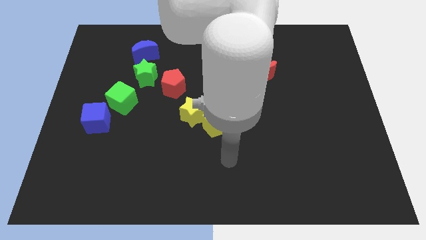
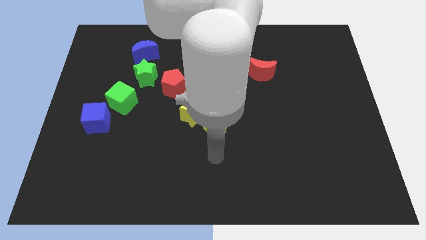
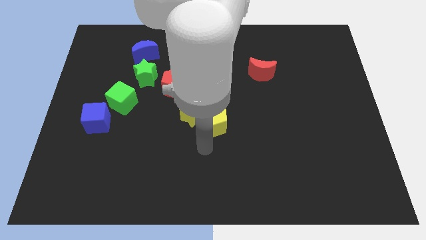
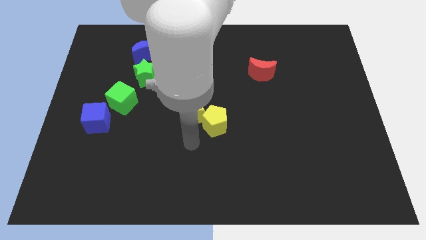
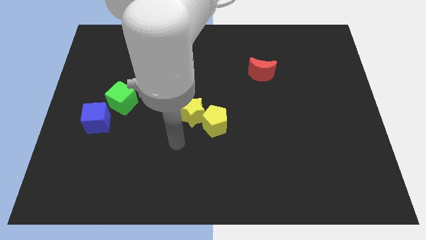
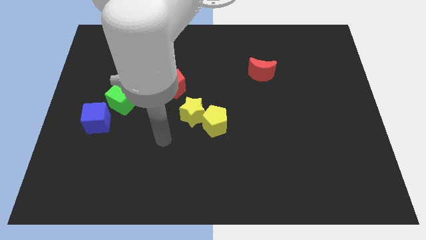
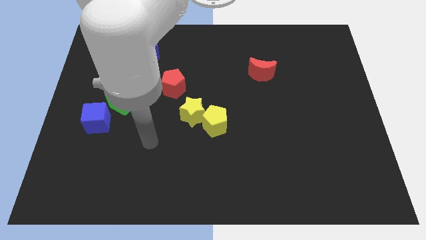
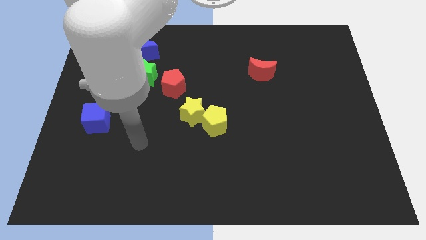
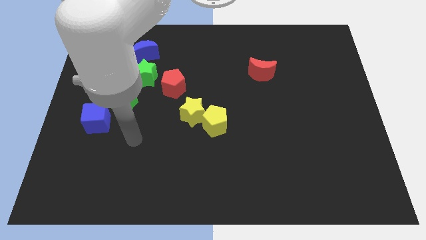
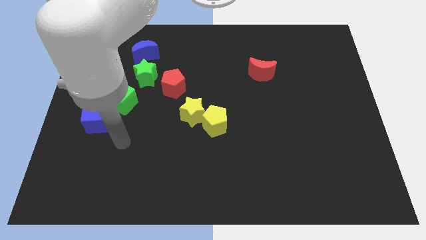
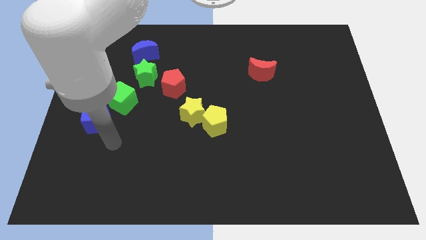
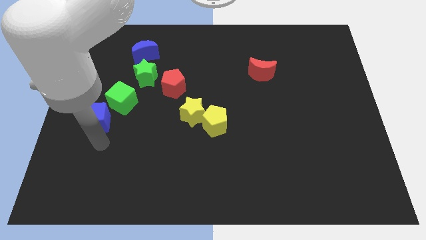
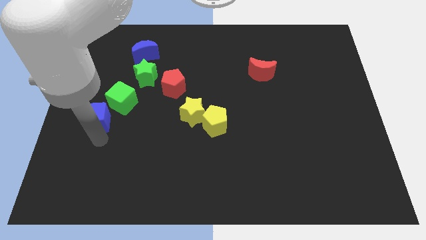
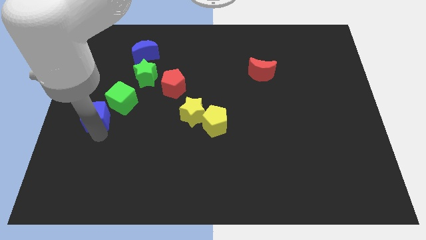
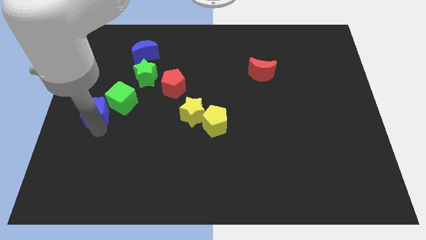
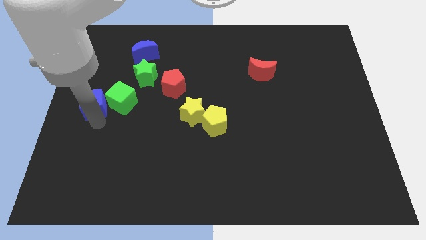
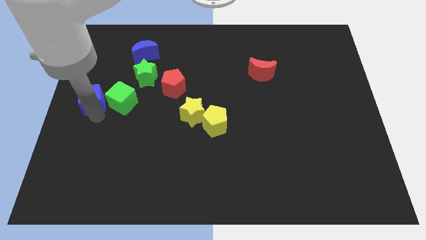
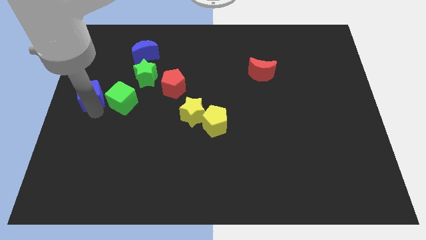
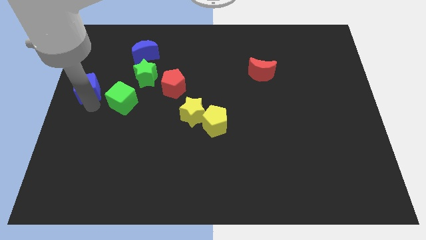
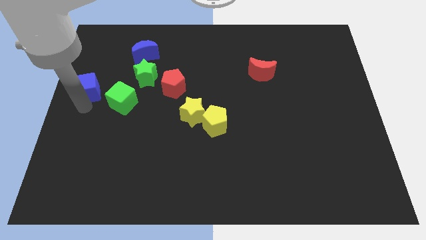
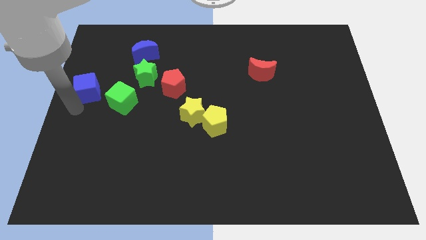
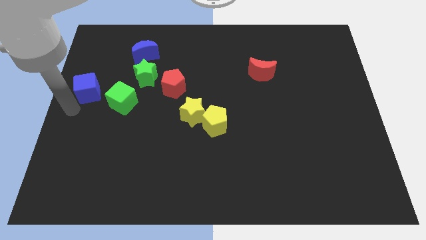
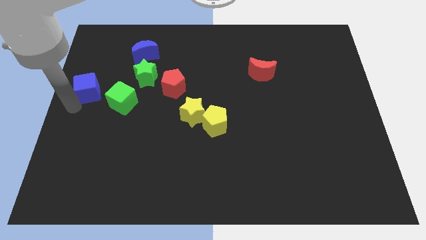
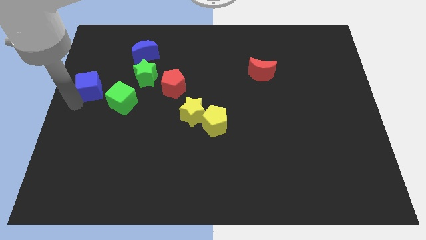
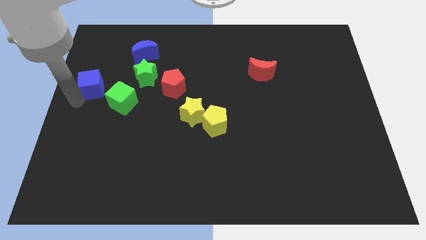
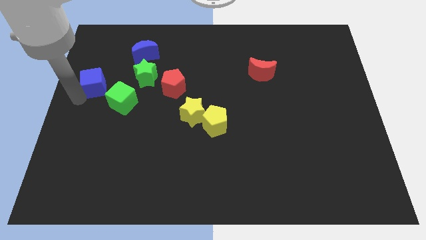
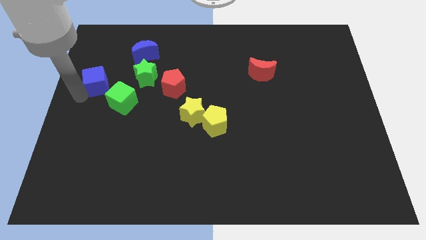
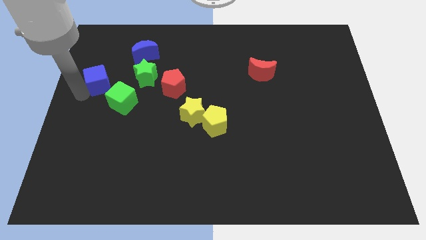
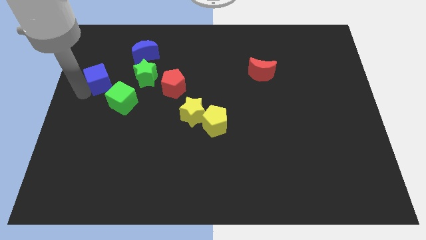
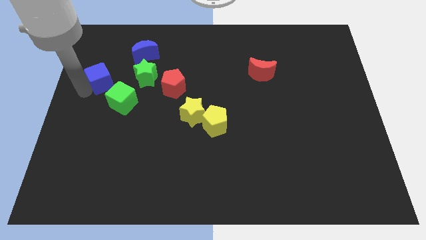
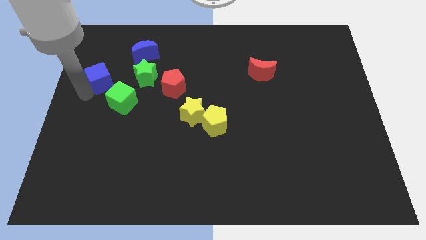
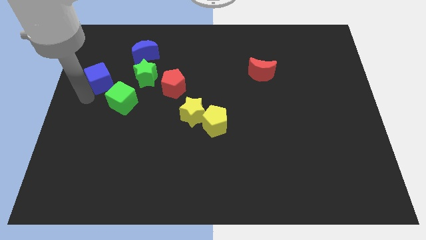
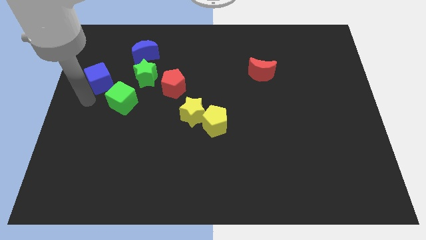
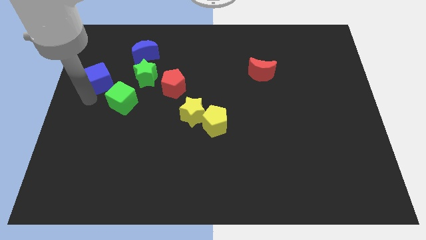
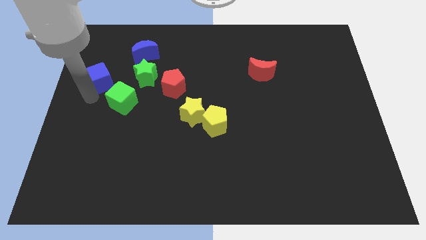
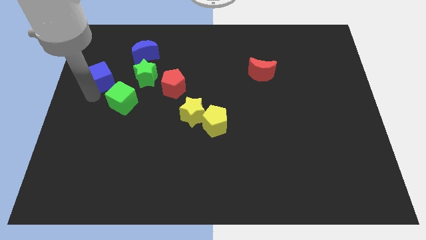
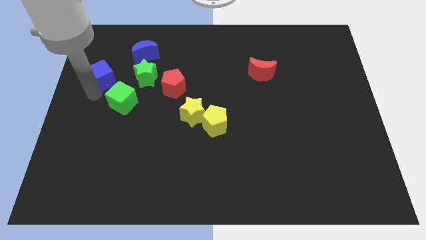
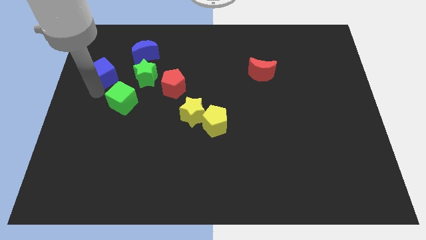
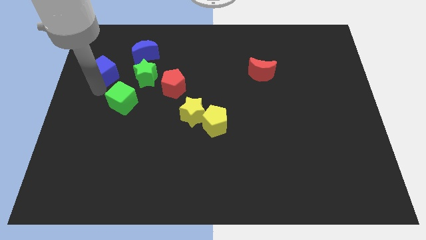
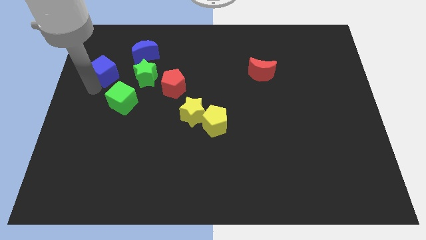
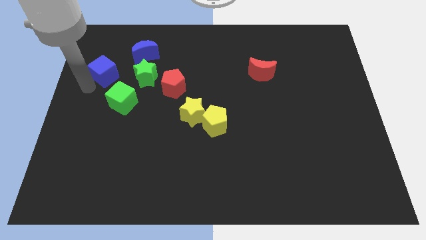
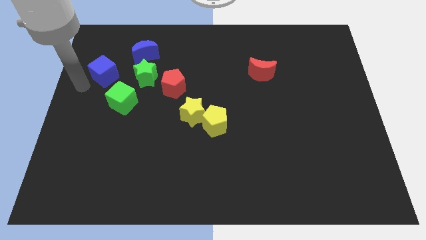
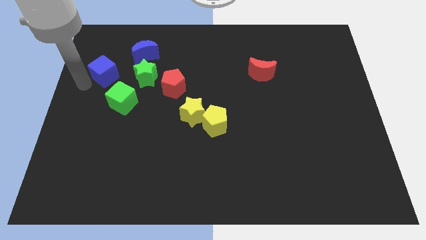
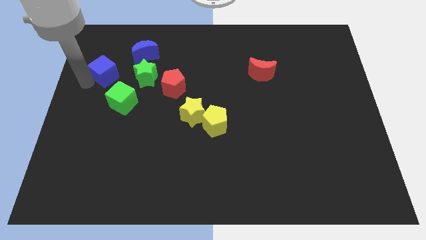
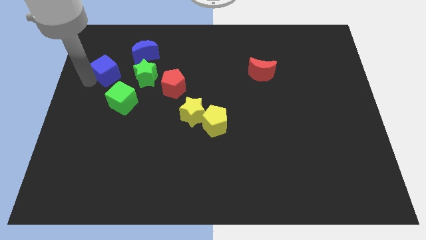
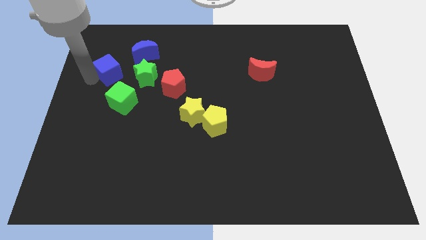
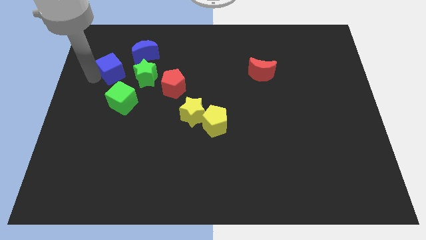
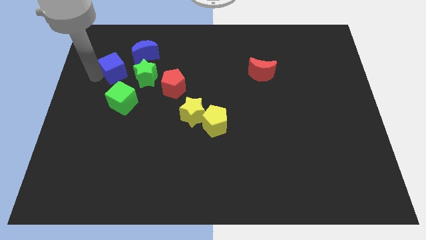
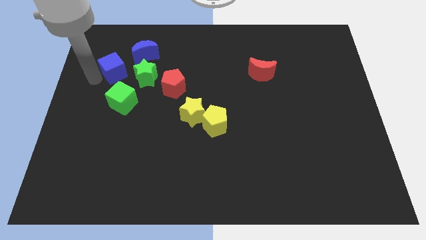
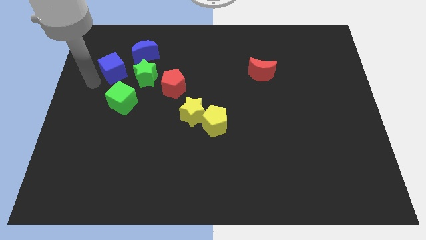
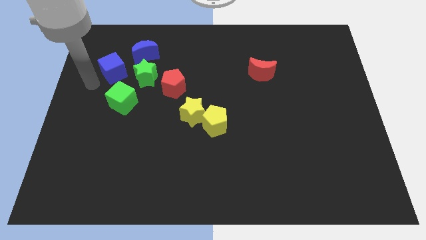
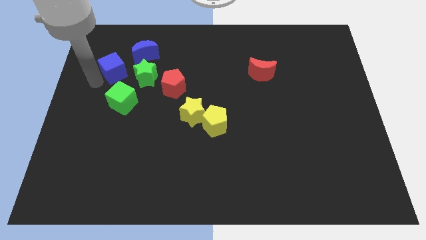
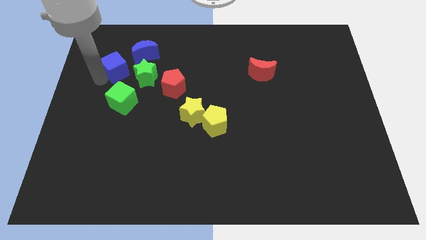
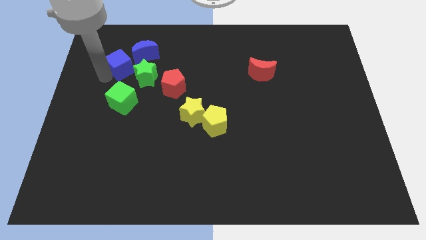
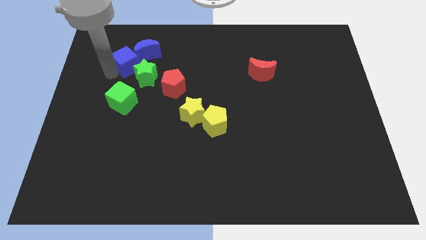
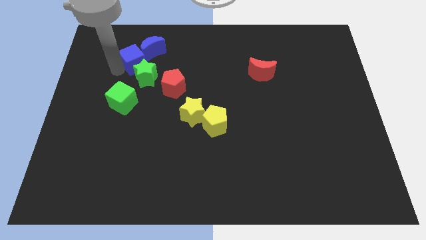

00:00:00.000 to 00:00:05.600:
slide the blue cube to the blue moon

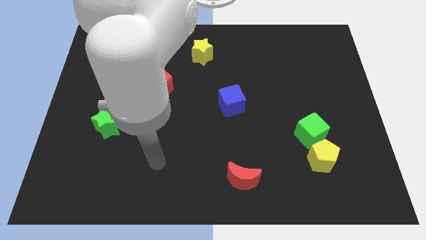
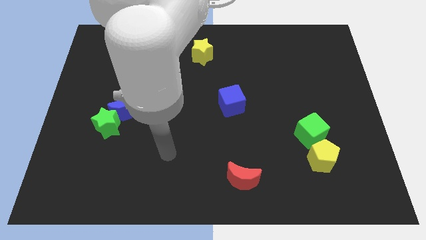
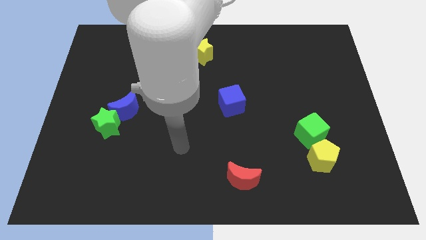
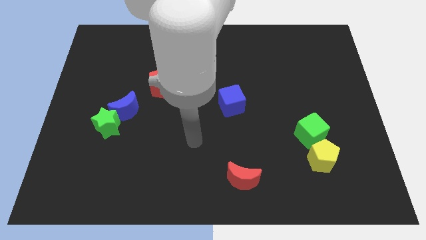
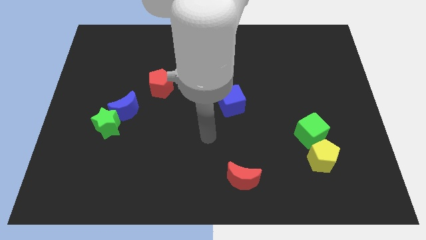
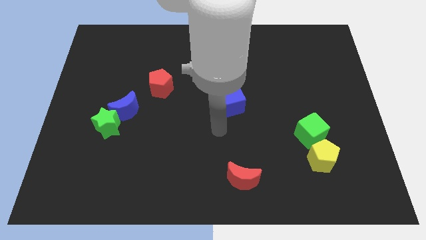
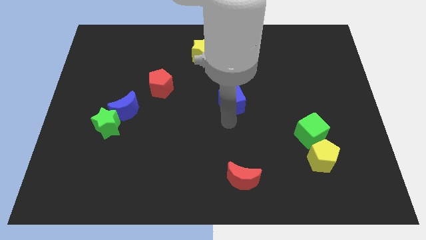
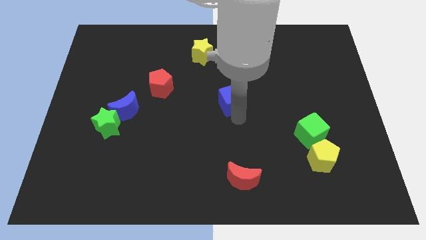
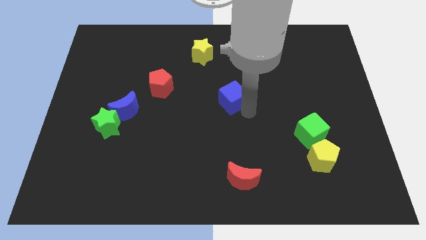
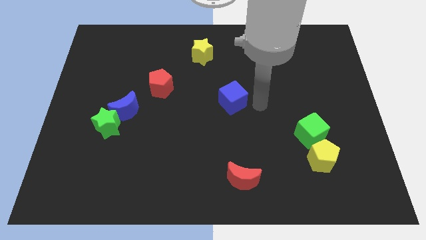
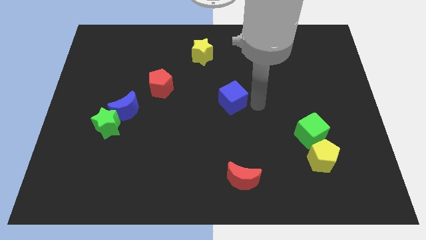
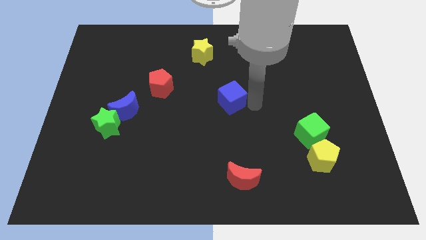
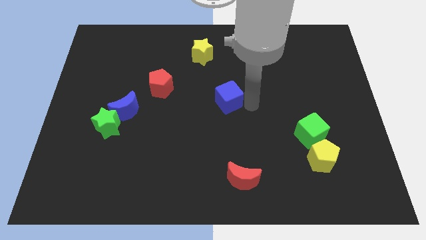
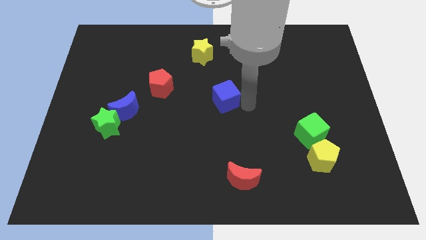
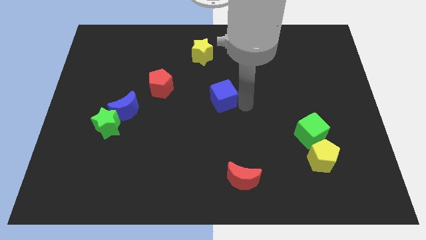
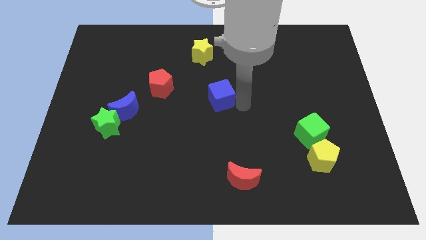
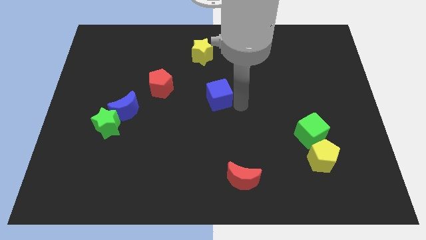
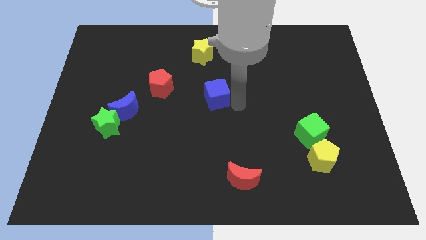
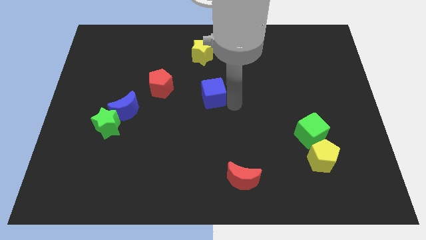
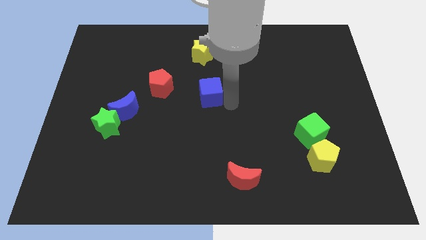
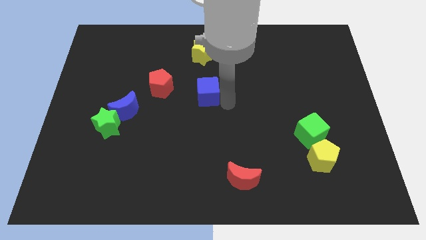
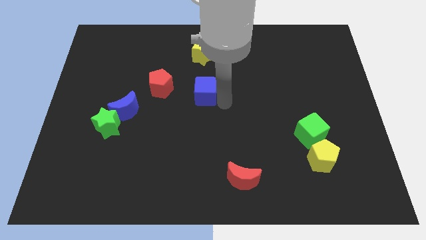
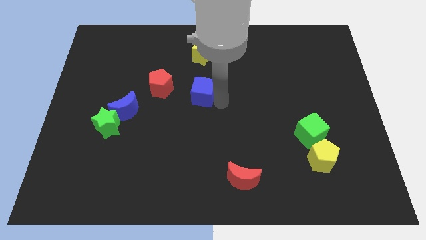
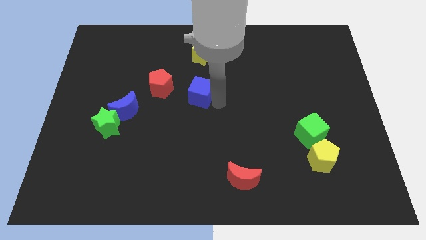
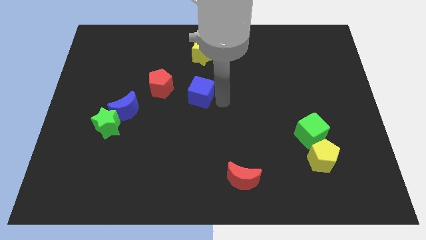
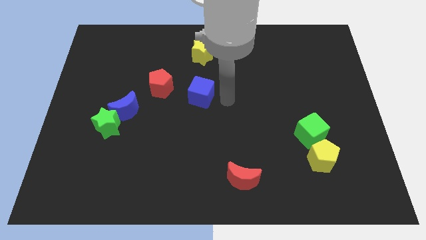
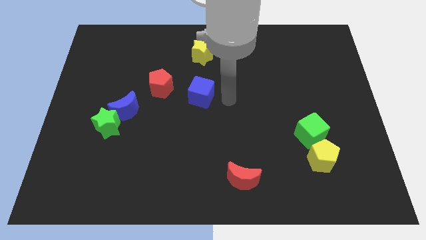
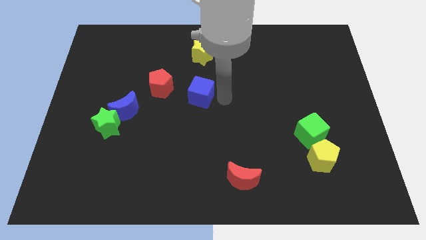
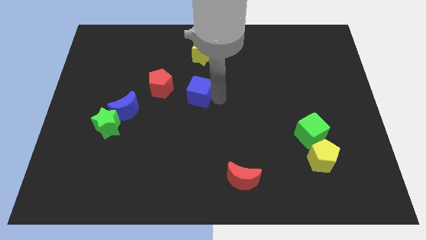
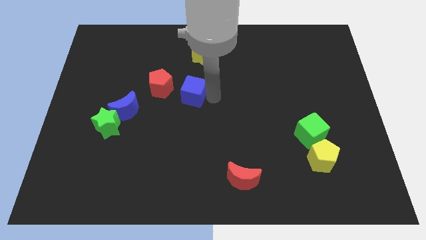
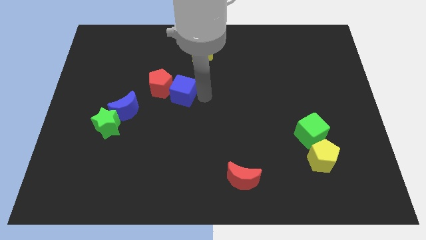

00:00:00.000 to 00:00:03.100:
put the blue cube close to the red pentagon
